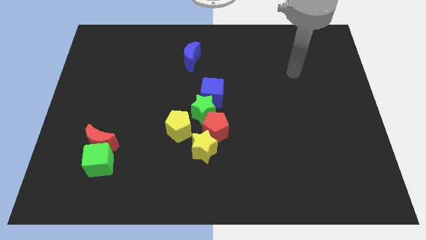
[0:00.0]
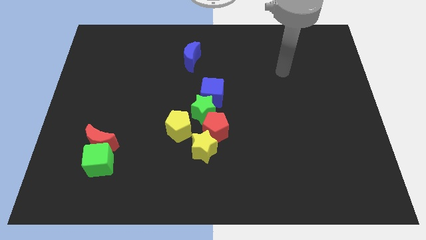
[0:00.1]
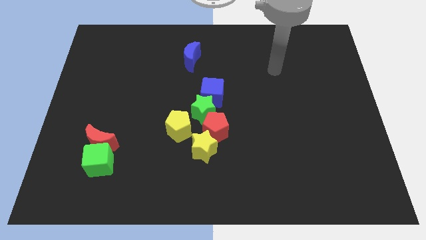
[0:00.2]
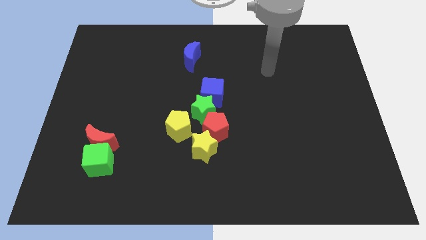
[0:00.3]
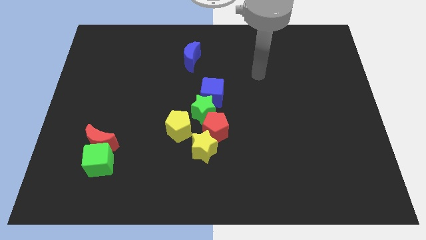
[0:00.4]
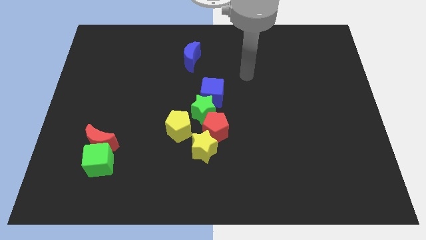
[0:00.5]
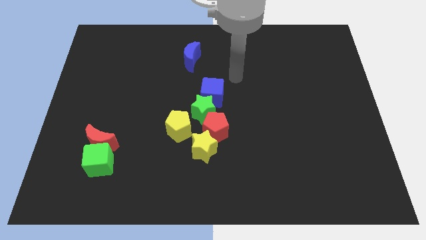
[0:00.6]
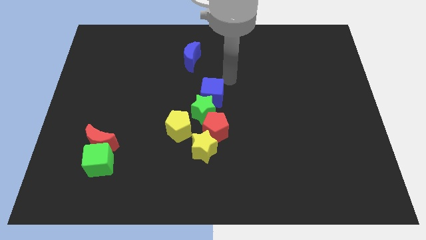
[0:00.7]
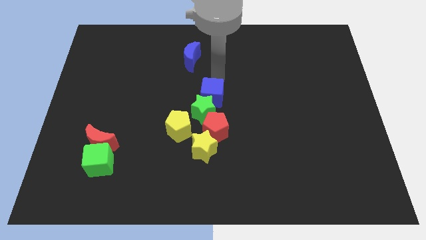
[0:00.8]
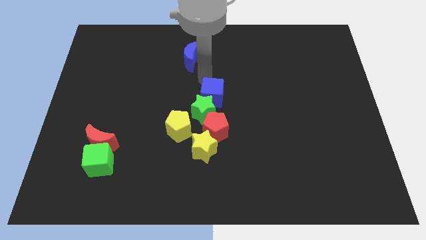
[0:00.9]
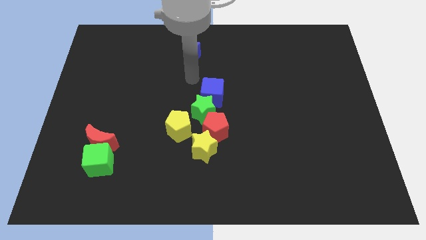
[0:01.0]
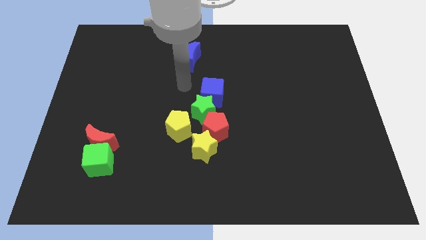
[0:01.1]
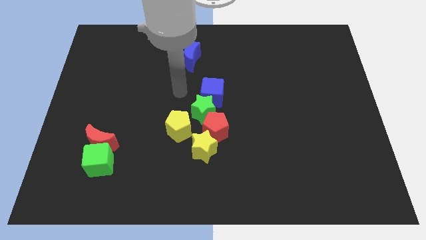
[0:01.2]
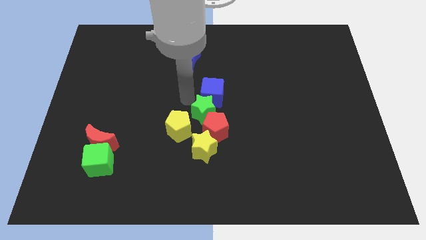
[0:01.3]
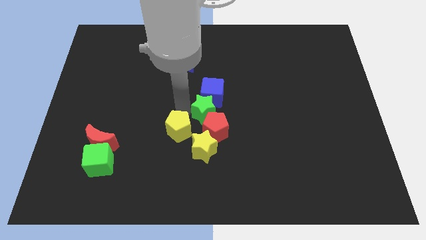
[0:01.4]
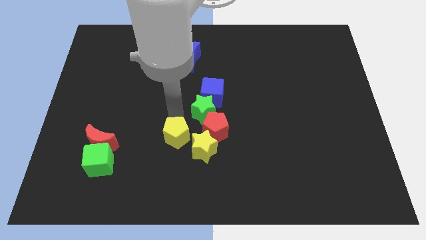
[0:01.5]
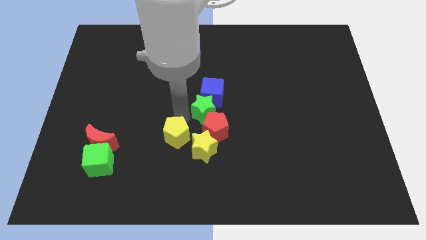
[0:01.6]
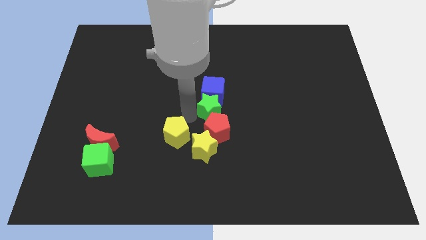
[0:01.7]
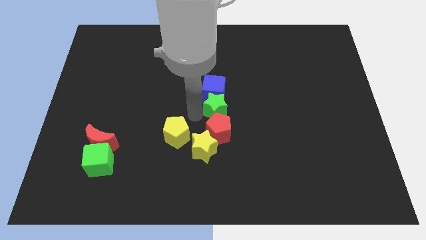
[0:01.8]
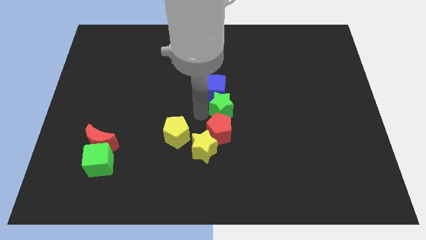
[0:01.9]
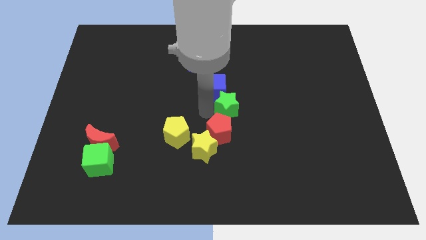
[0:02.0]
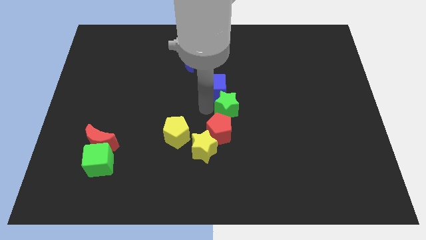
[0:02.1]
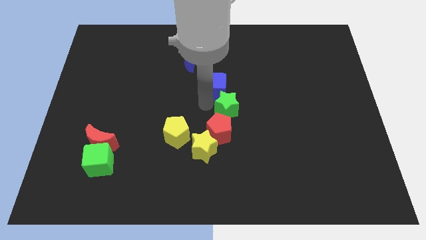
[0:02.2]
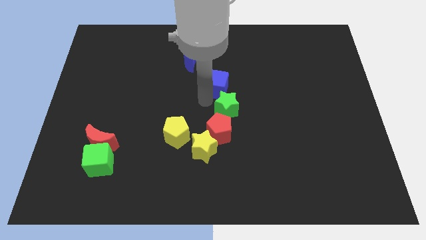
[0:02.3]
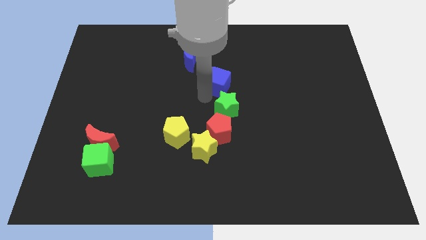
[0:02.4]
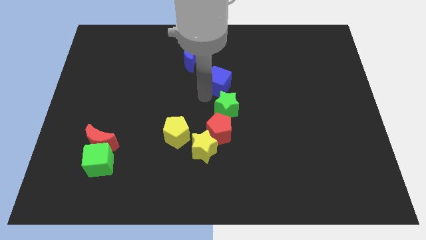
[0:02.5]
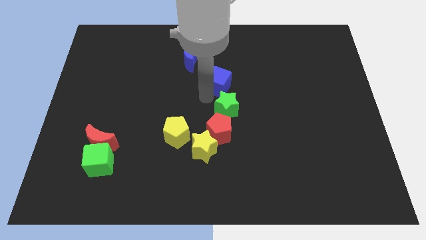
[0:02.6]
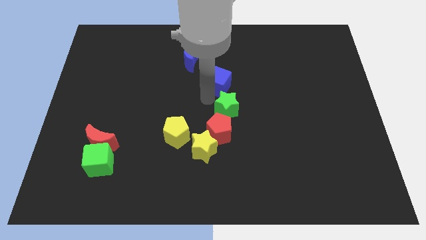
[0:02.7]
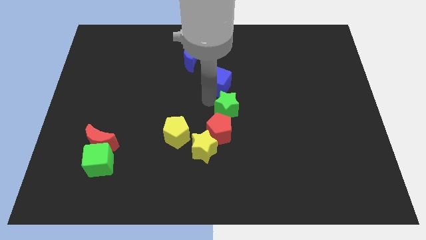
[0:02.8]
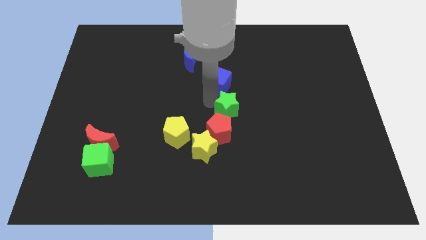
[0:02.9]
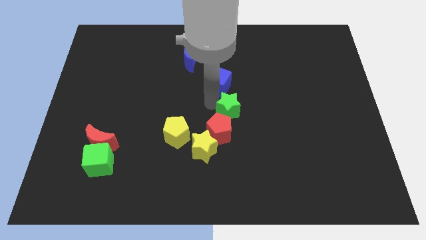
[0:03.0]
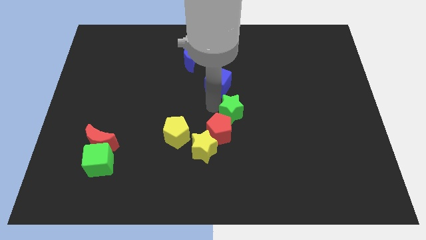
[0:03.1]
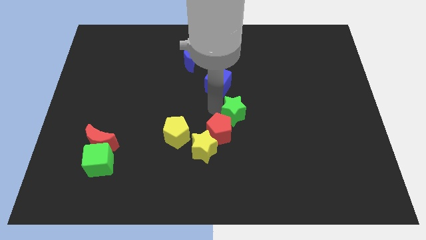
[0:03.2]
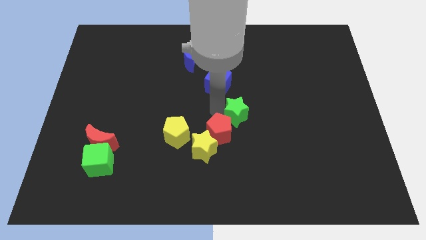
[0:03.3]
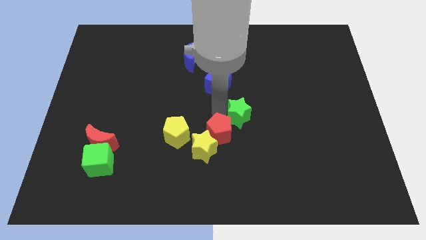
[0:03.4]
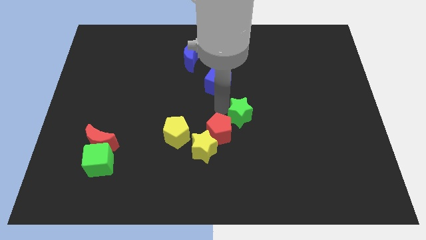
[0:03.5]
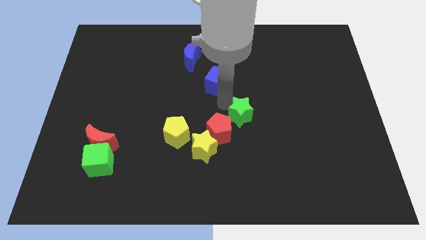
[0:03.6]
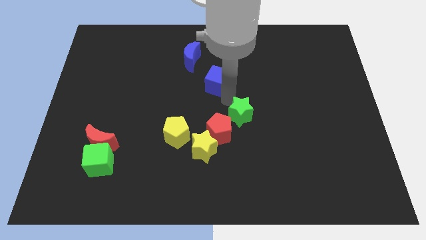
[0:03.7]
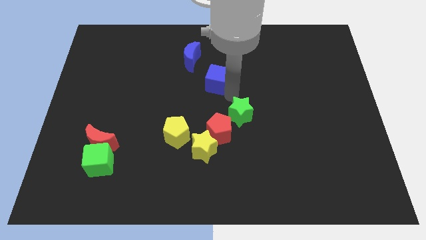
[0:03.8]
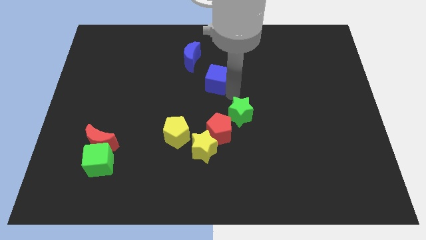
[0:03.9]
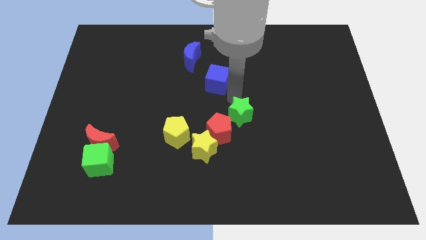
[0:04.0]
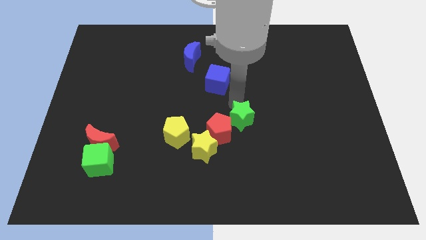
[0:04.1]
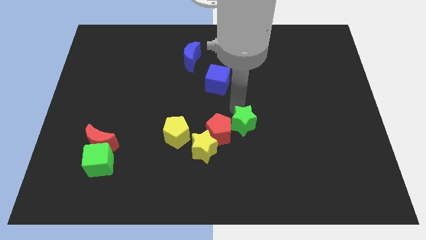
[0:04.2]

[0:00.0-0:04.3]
slide the green star slightly diagonally downwards and right

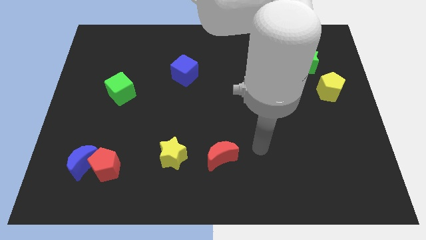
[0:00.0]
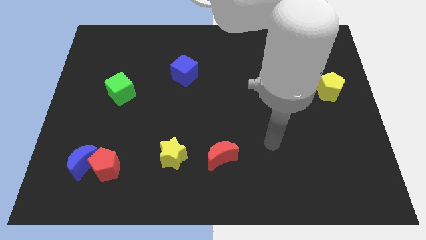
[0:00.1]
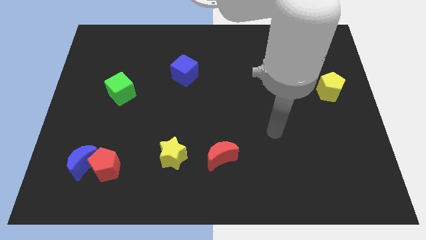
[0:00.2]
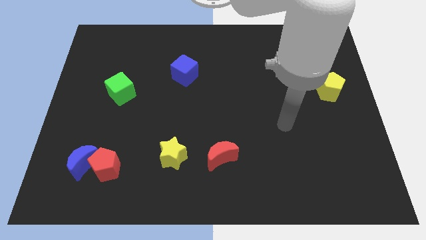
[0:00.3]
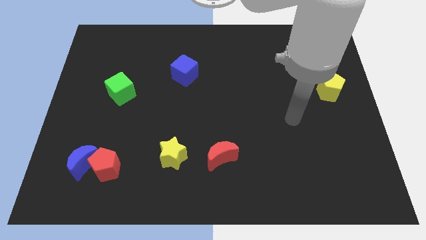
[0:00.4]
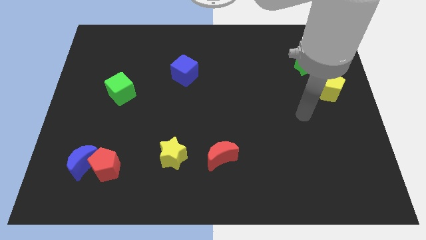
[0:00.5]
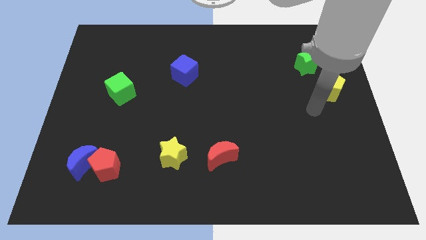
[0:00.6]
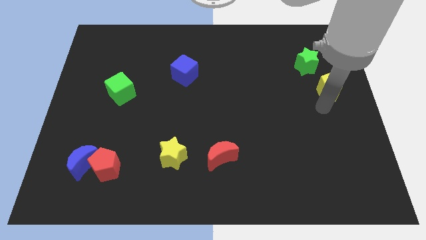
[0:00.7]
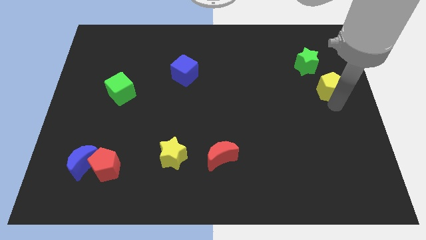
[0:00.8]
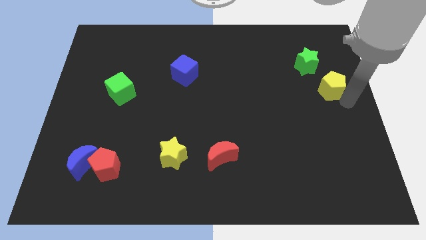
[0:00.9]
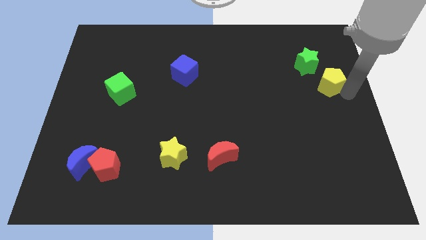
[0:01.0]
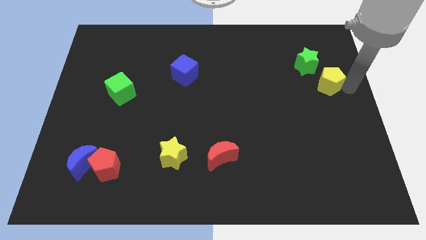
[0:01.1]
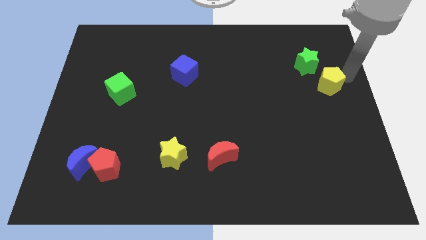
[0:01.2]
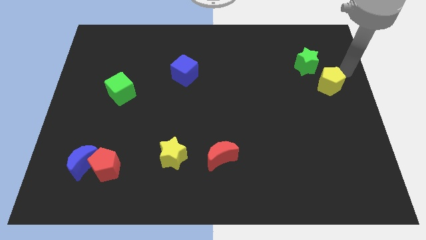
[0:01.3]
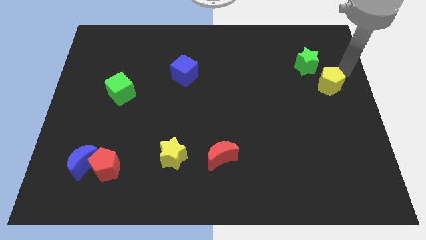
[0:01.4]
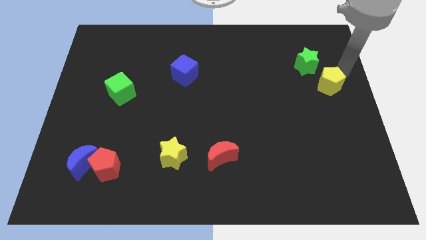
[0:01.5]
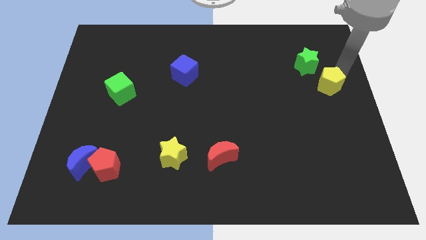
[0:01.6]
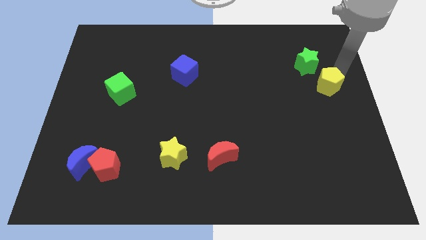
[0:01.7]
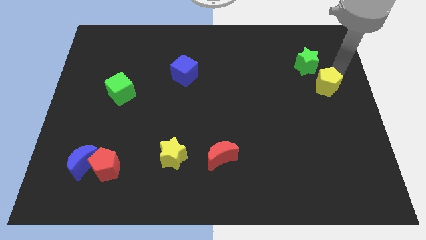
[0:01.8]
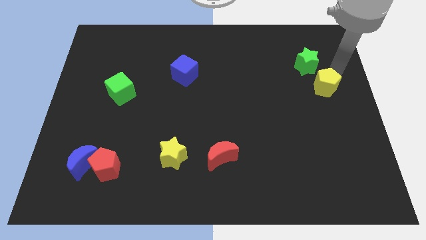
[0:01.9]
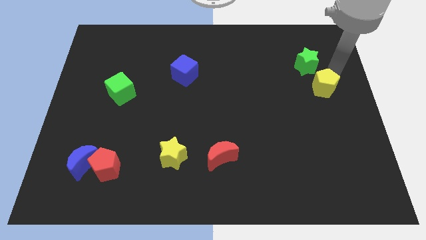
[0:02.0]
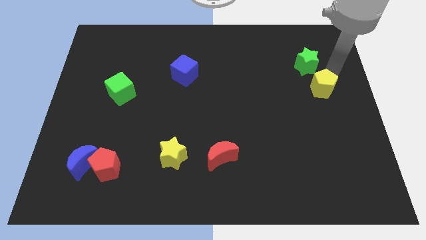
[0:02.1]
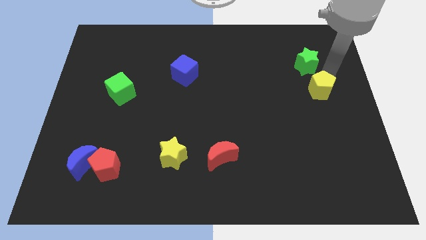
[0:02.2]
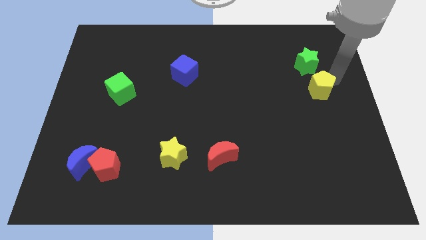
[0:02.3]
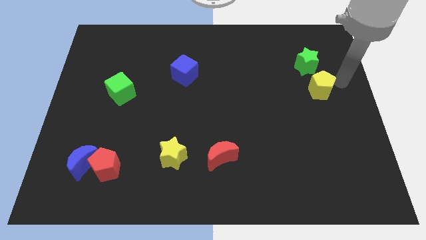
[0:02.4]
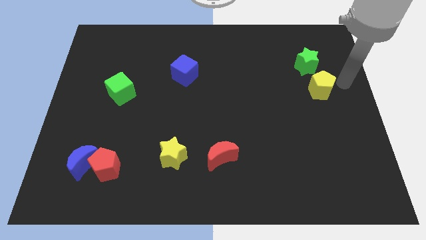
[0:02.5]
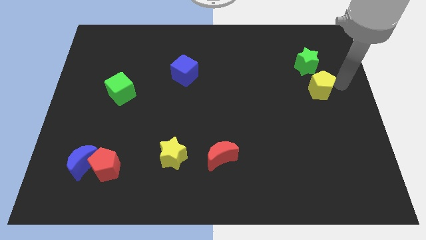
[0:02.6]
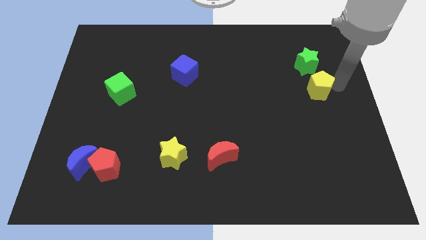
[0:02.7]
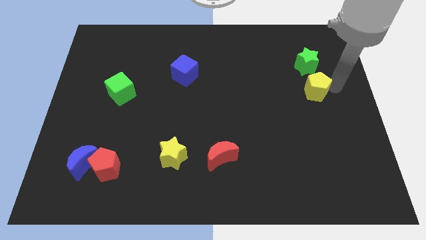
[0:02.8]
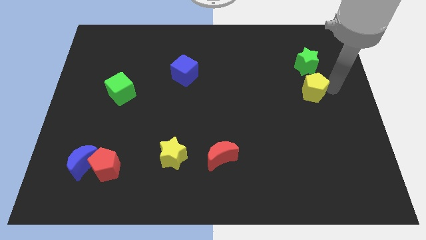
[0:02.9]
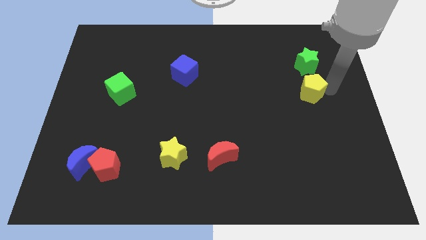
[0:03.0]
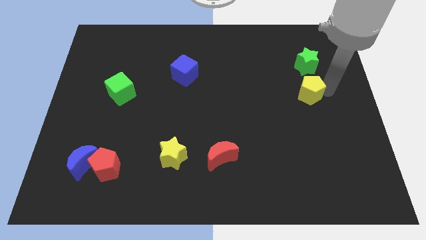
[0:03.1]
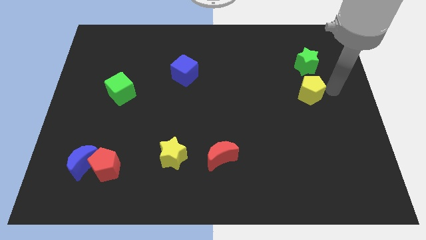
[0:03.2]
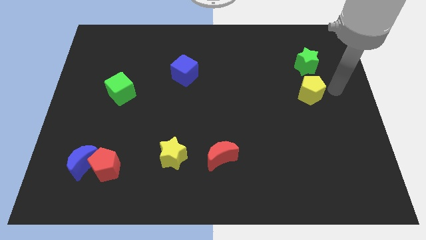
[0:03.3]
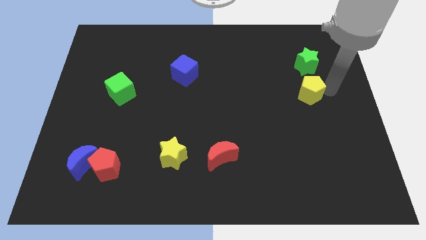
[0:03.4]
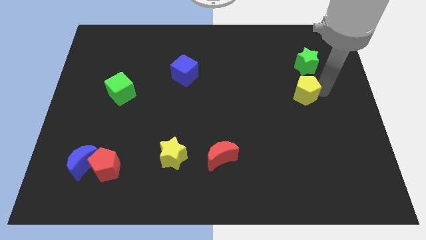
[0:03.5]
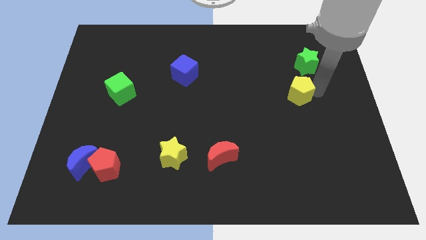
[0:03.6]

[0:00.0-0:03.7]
move the yellow pentagon to the left slightly
